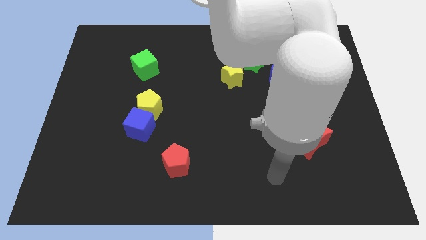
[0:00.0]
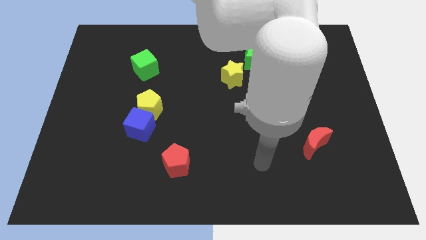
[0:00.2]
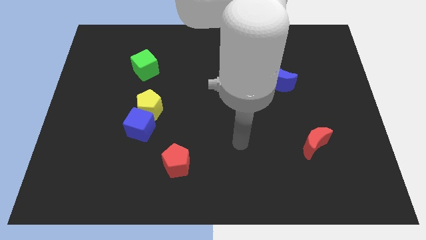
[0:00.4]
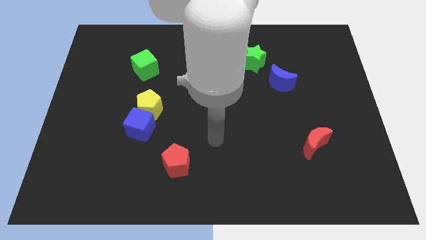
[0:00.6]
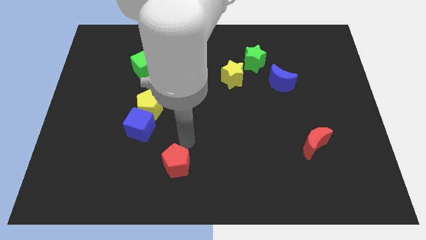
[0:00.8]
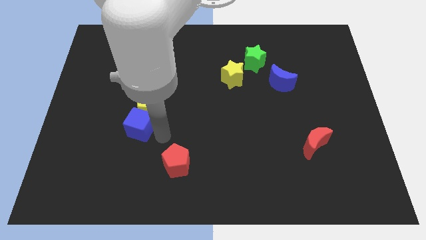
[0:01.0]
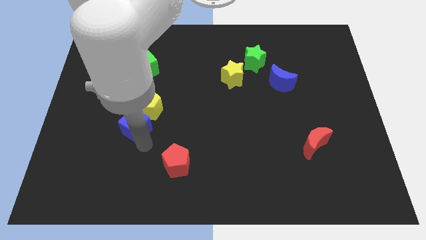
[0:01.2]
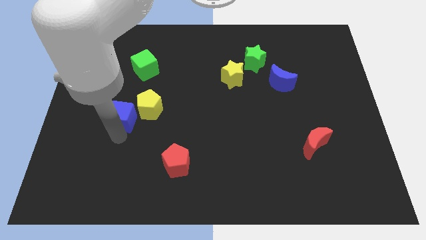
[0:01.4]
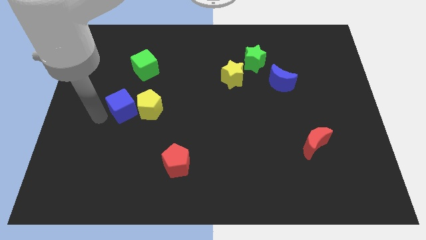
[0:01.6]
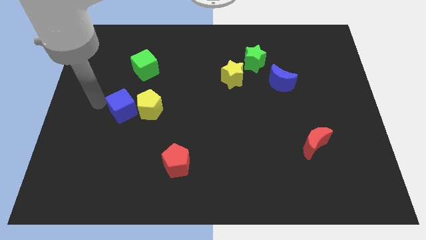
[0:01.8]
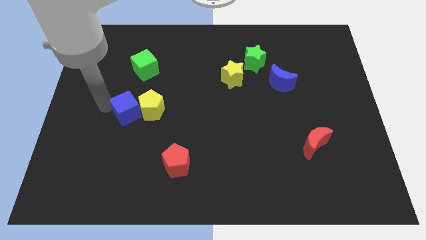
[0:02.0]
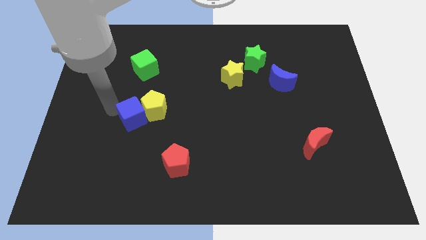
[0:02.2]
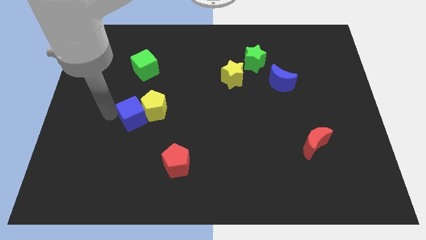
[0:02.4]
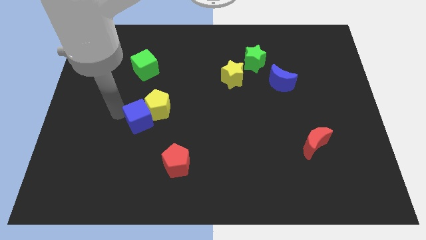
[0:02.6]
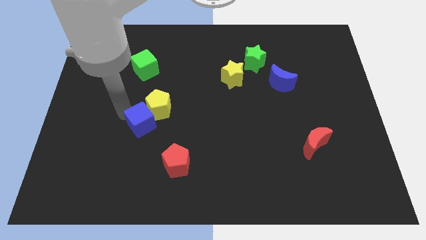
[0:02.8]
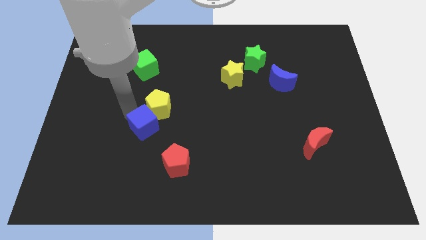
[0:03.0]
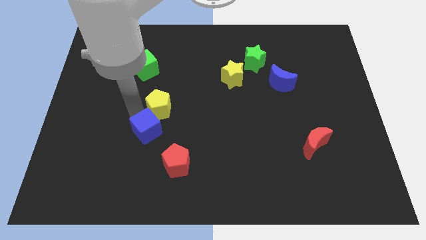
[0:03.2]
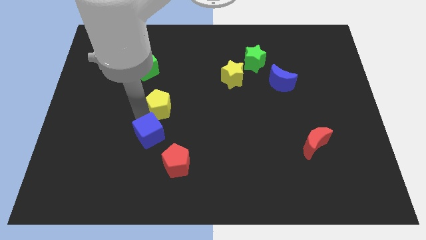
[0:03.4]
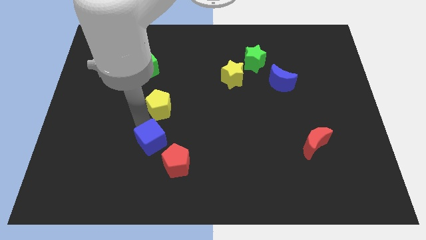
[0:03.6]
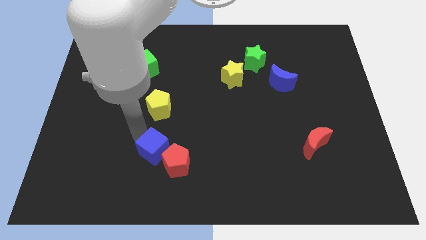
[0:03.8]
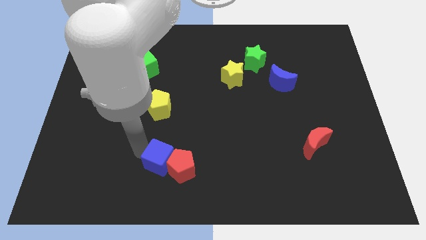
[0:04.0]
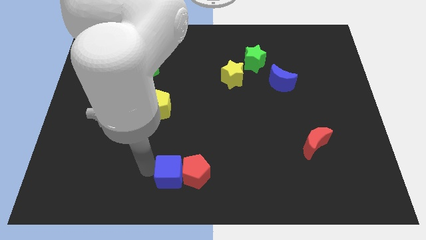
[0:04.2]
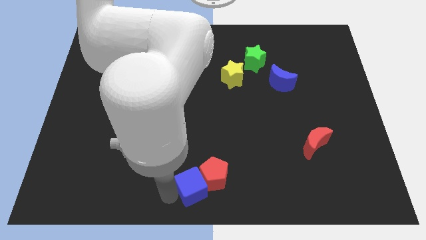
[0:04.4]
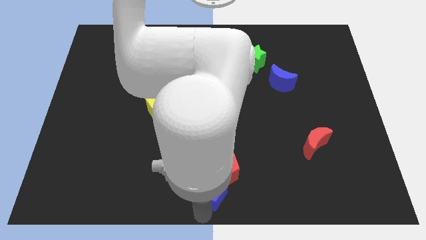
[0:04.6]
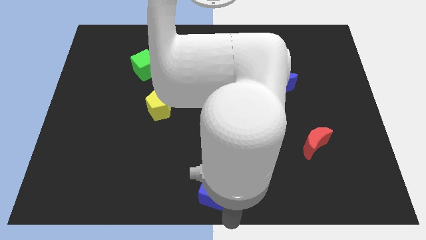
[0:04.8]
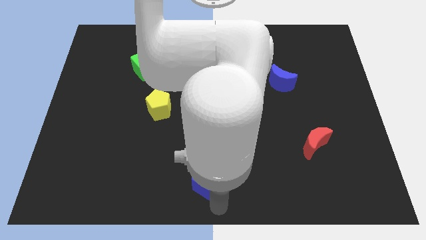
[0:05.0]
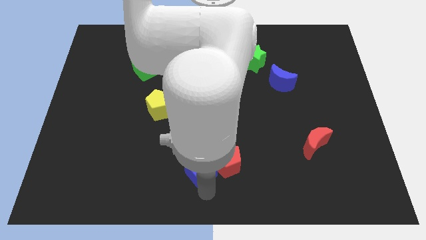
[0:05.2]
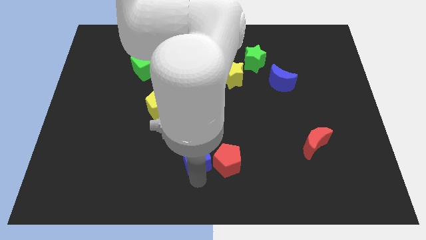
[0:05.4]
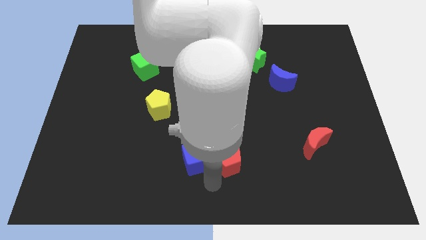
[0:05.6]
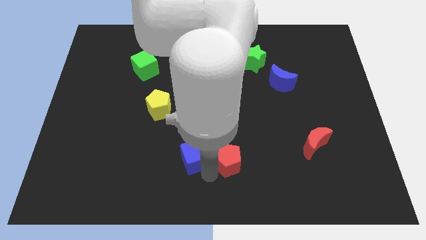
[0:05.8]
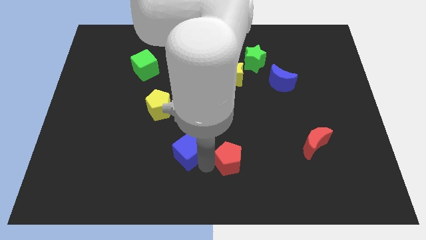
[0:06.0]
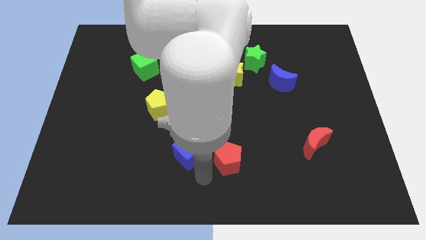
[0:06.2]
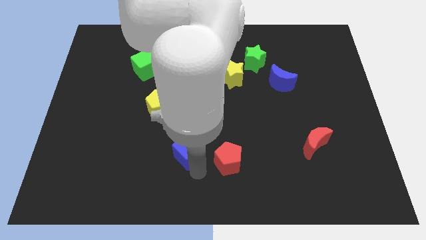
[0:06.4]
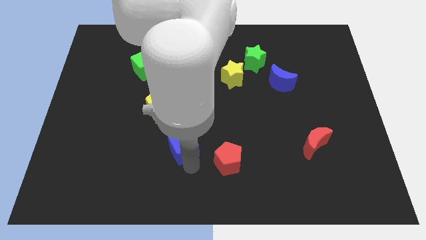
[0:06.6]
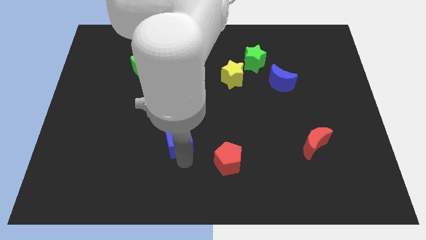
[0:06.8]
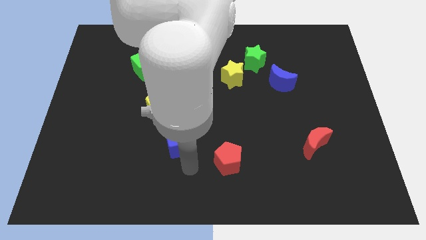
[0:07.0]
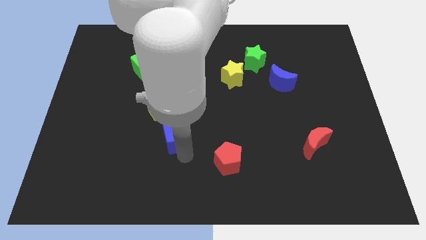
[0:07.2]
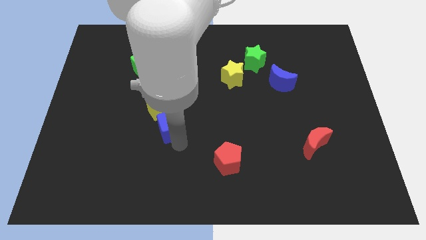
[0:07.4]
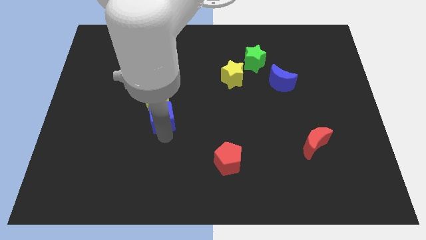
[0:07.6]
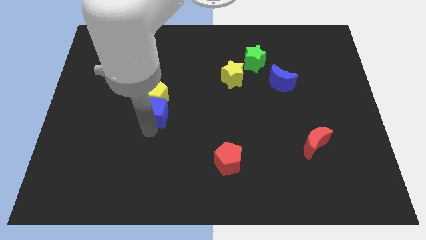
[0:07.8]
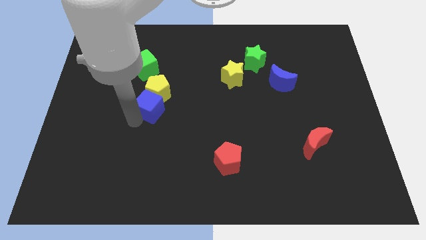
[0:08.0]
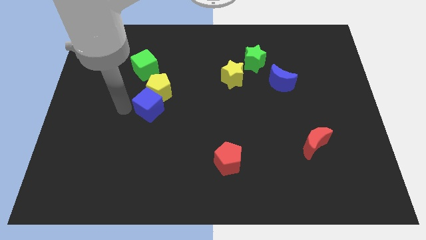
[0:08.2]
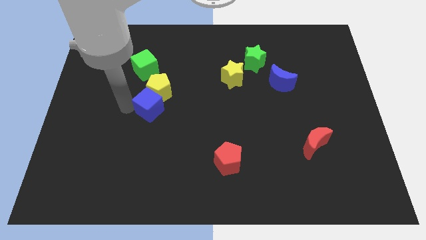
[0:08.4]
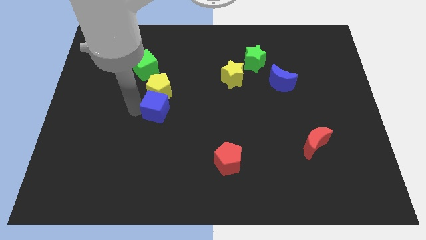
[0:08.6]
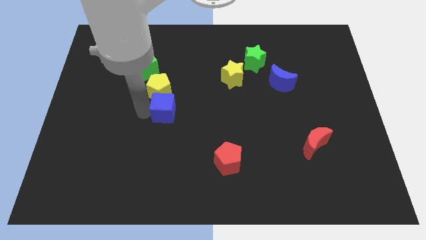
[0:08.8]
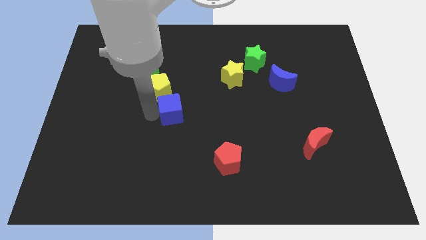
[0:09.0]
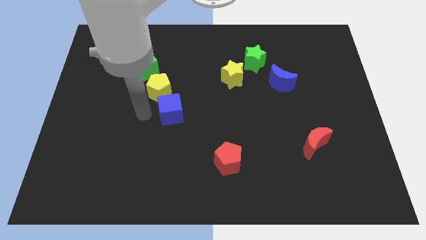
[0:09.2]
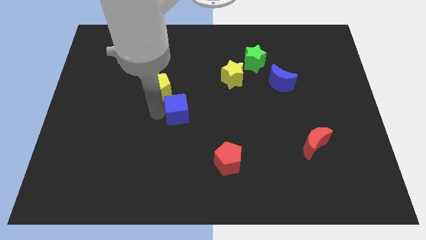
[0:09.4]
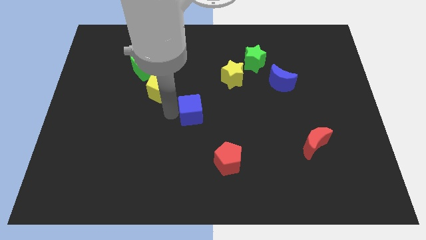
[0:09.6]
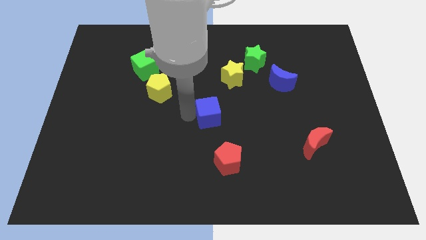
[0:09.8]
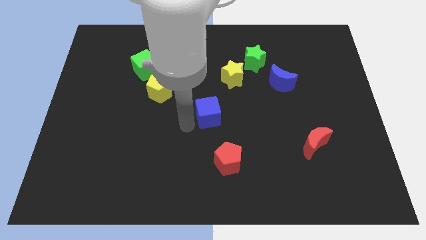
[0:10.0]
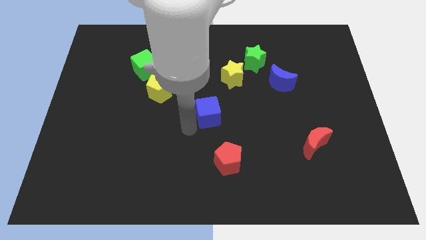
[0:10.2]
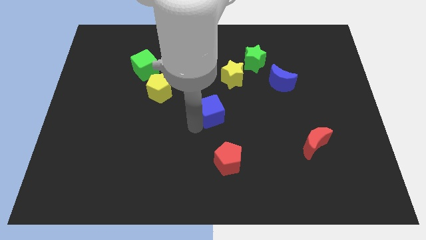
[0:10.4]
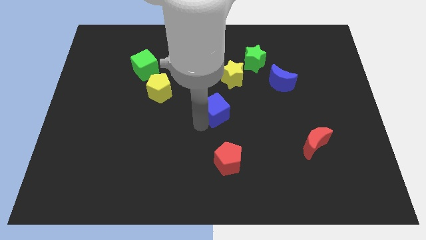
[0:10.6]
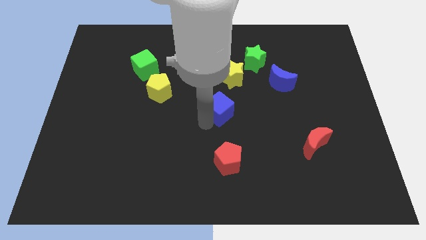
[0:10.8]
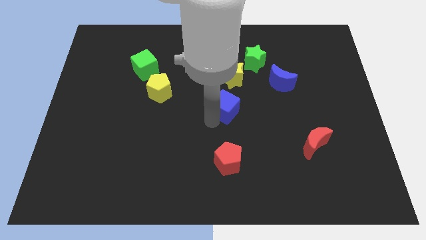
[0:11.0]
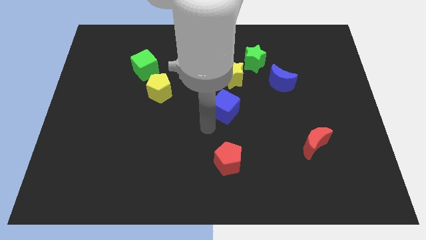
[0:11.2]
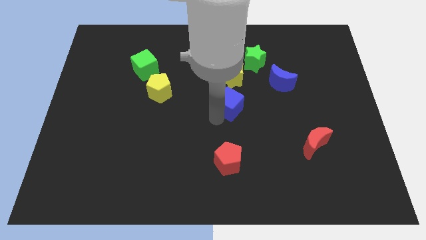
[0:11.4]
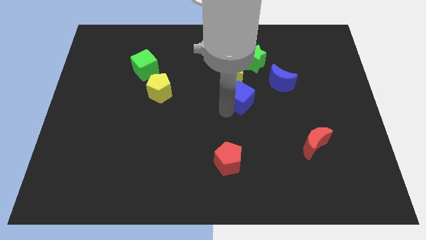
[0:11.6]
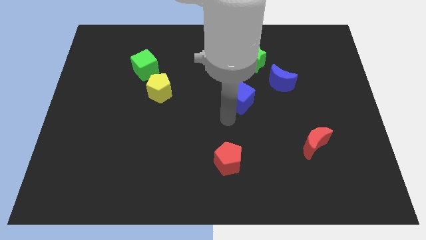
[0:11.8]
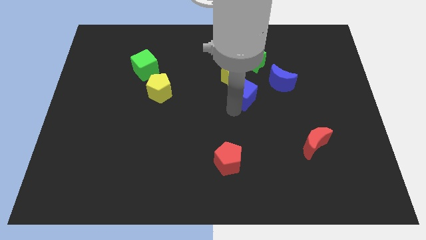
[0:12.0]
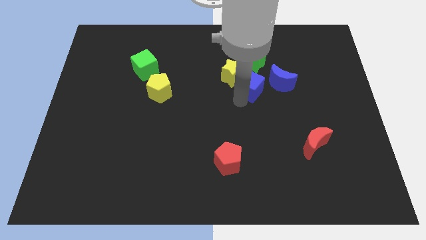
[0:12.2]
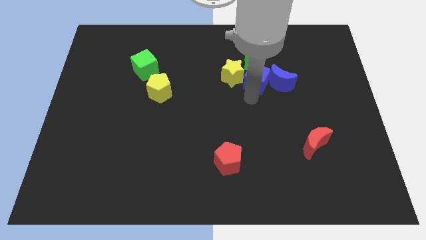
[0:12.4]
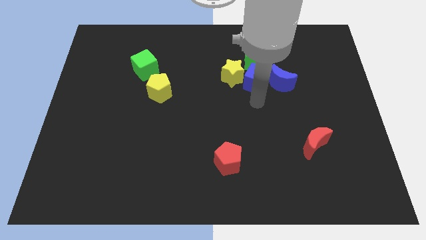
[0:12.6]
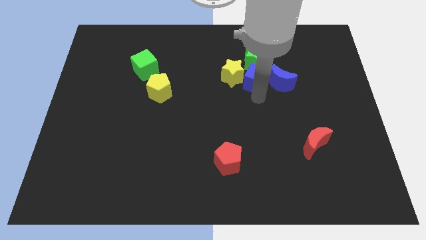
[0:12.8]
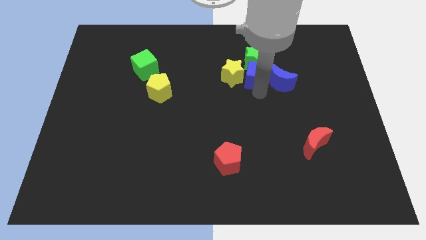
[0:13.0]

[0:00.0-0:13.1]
push the blue cube towards the green star

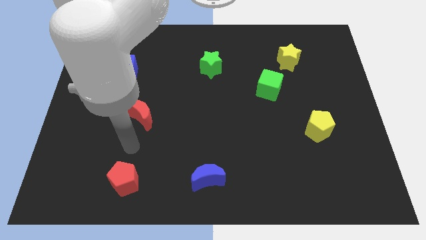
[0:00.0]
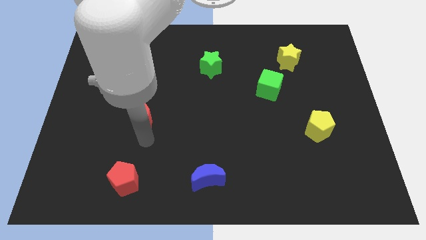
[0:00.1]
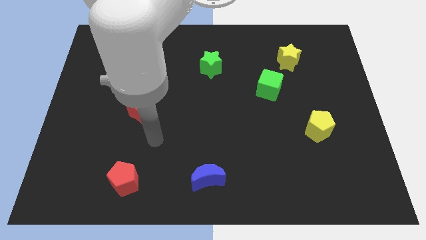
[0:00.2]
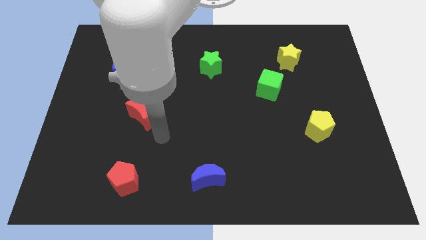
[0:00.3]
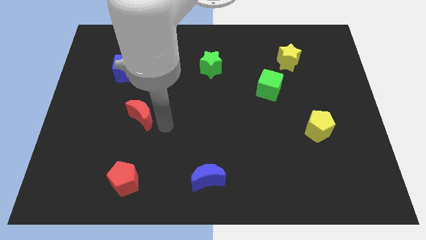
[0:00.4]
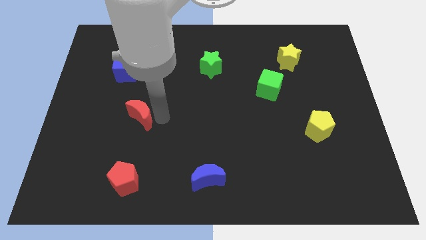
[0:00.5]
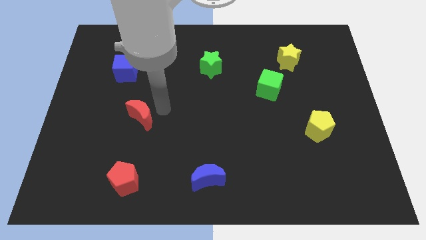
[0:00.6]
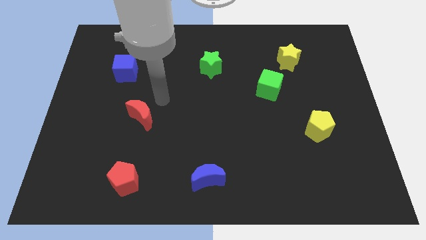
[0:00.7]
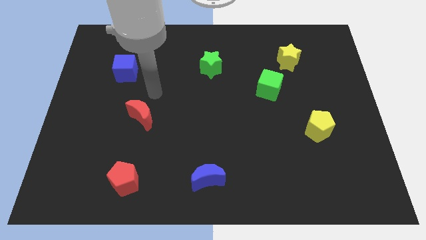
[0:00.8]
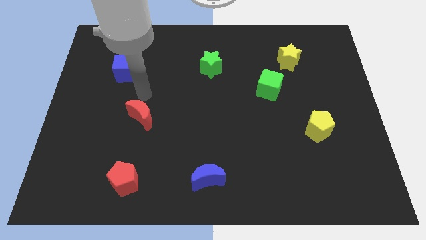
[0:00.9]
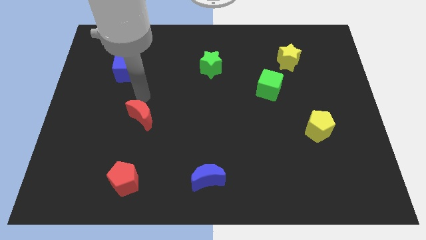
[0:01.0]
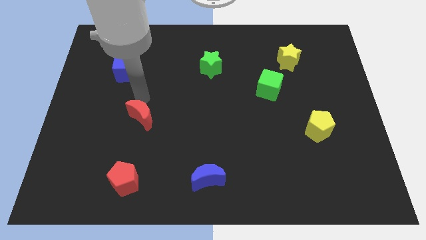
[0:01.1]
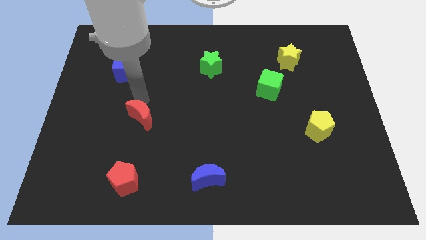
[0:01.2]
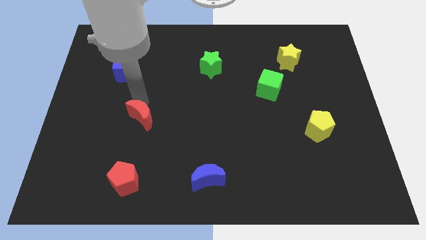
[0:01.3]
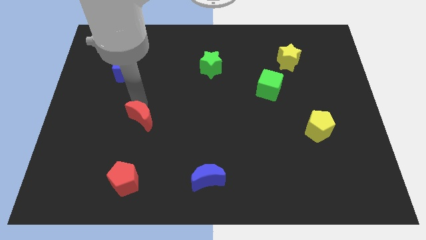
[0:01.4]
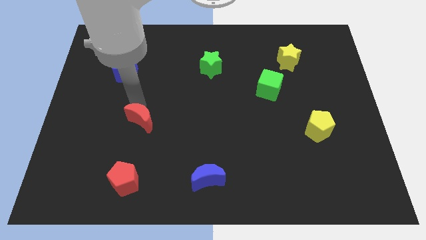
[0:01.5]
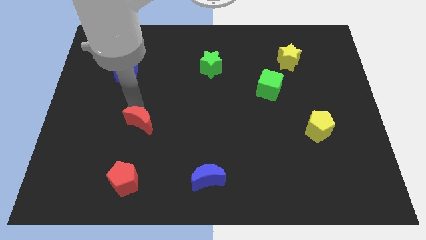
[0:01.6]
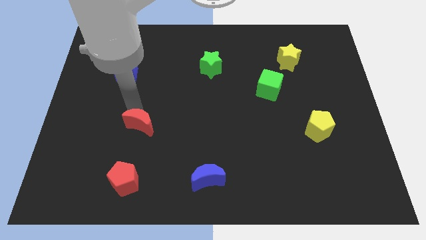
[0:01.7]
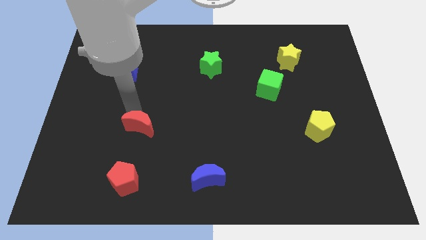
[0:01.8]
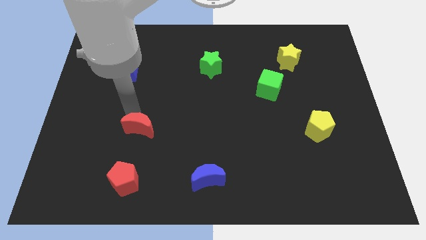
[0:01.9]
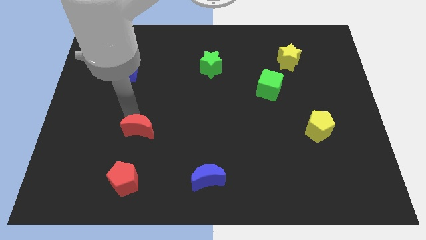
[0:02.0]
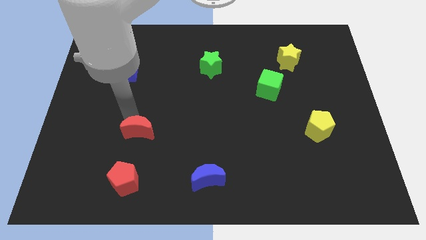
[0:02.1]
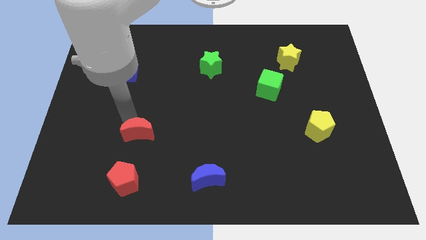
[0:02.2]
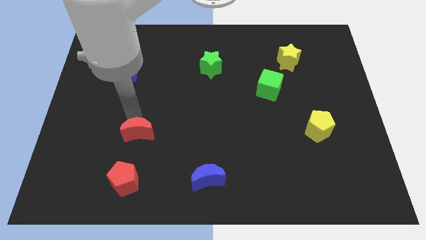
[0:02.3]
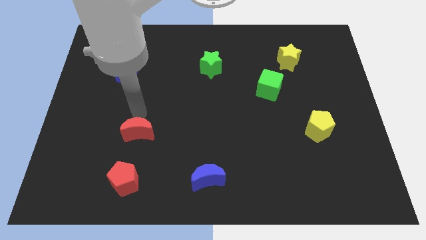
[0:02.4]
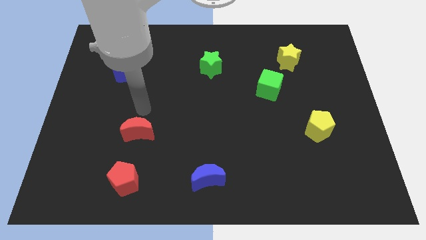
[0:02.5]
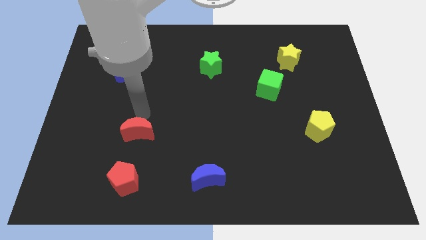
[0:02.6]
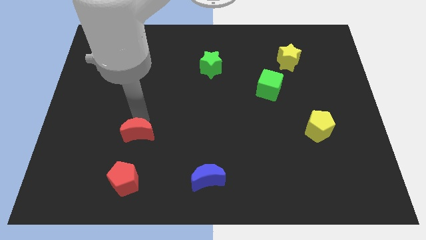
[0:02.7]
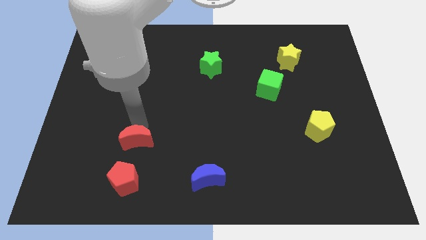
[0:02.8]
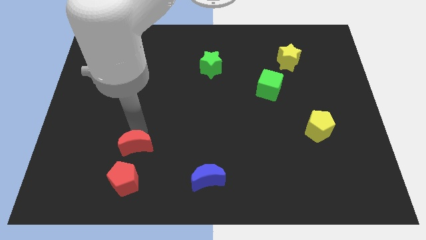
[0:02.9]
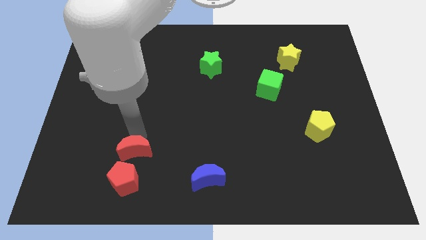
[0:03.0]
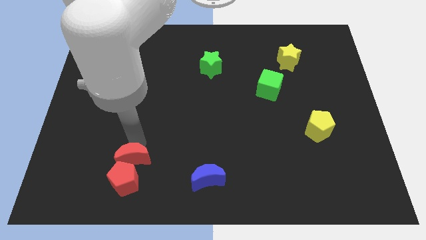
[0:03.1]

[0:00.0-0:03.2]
slide the red moon to the red pentagon
